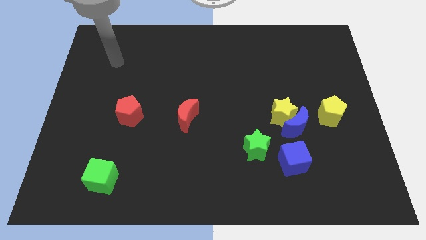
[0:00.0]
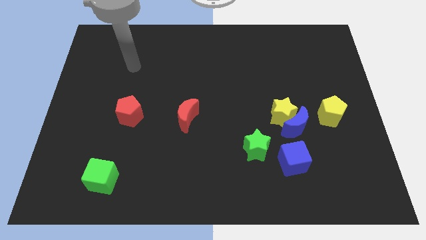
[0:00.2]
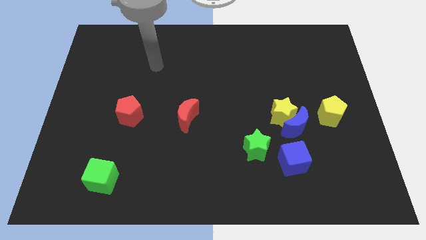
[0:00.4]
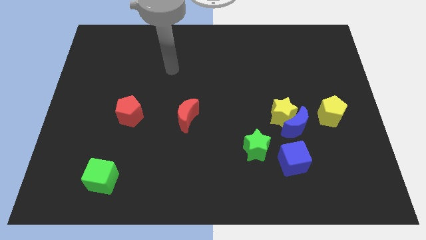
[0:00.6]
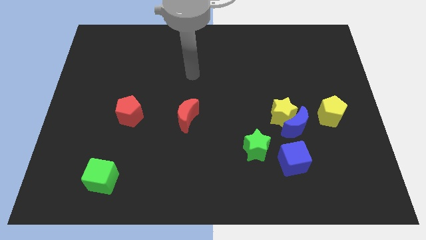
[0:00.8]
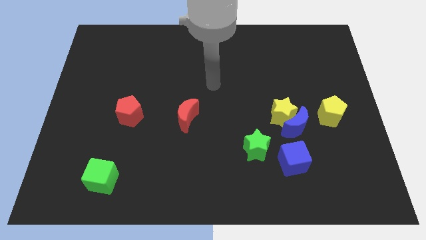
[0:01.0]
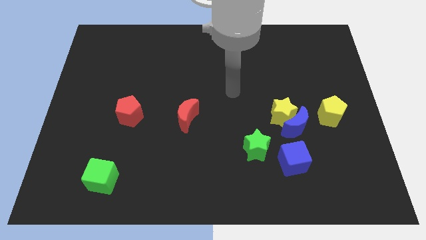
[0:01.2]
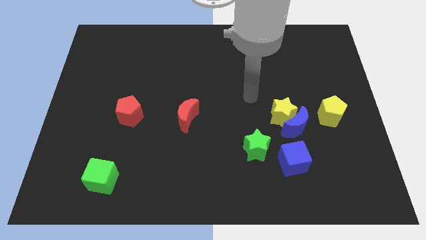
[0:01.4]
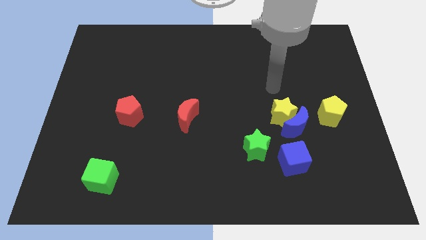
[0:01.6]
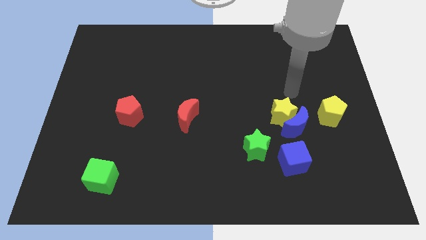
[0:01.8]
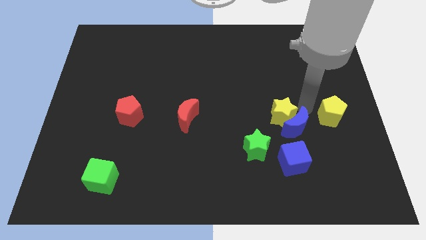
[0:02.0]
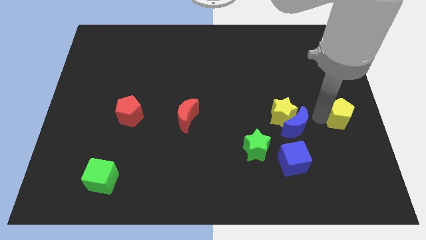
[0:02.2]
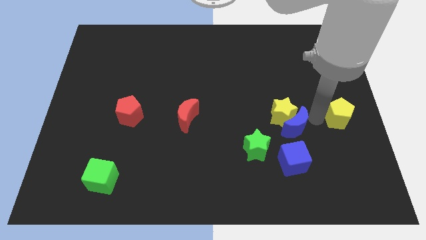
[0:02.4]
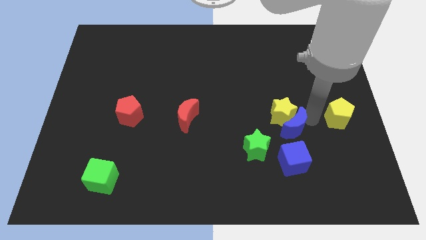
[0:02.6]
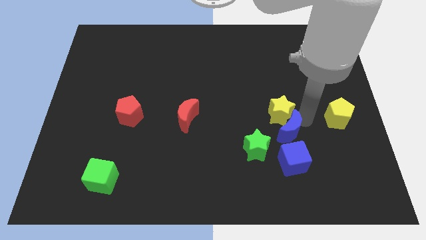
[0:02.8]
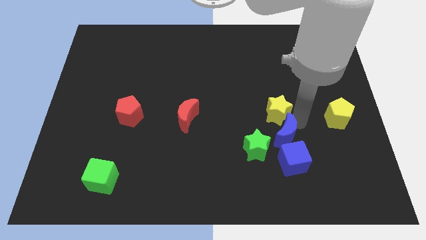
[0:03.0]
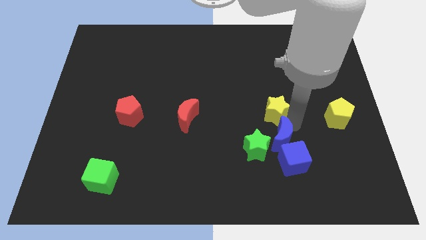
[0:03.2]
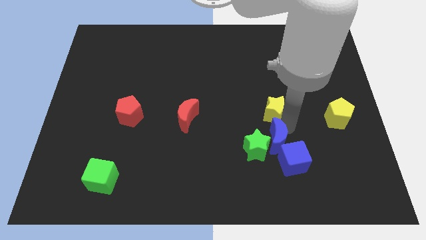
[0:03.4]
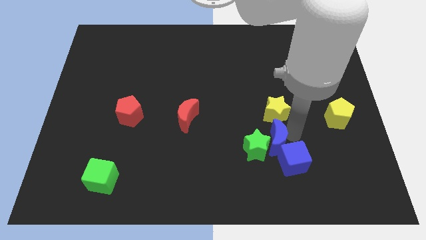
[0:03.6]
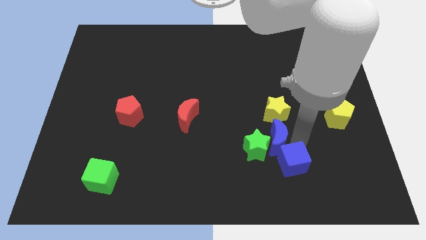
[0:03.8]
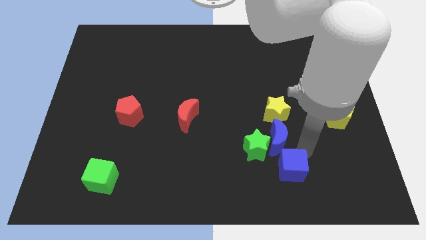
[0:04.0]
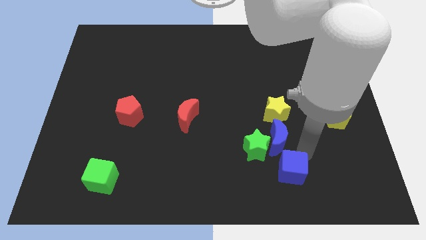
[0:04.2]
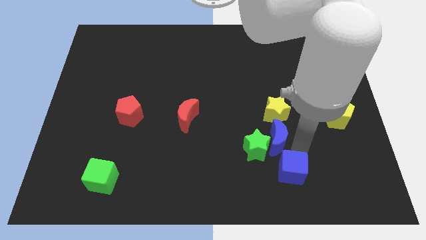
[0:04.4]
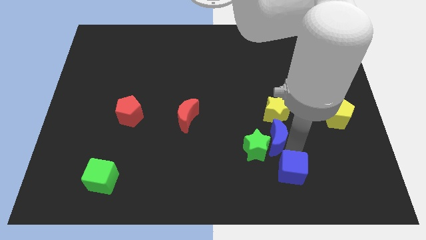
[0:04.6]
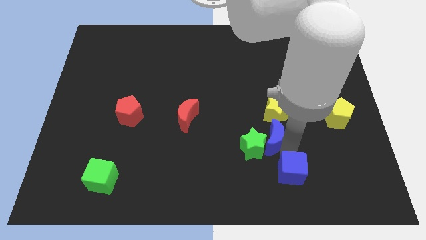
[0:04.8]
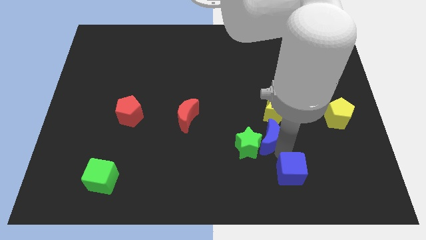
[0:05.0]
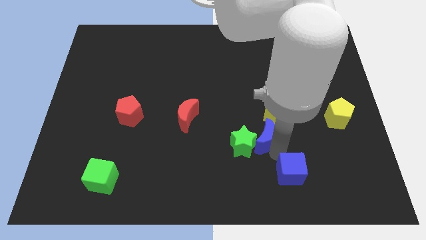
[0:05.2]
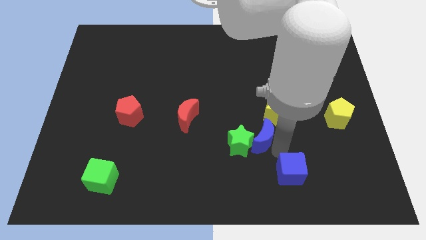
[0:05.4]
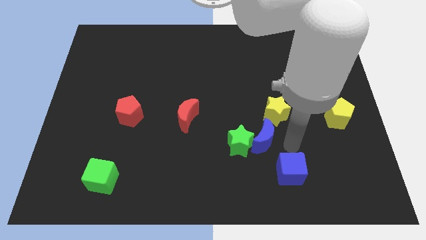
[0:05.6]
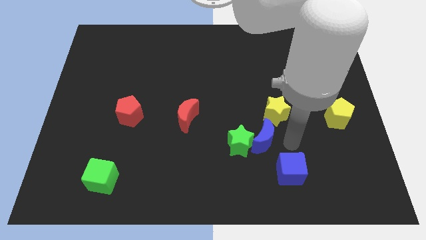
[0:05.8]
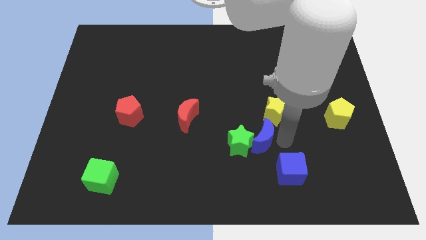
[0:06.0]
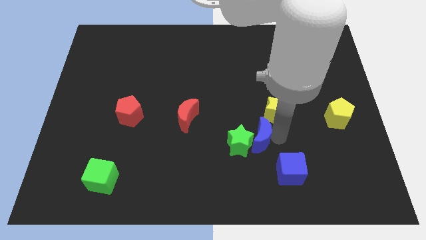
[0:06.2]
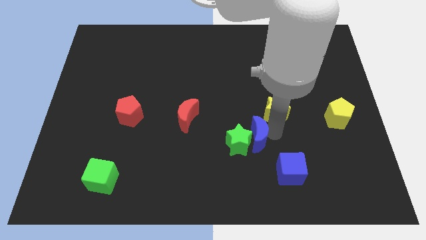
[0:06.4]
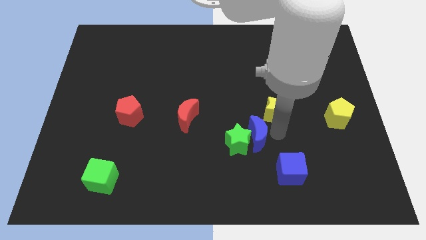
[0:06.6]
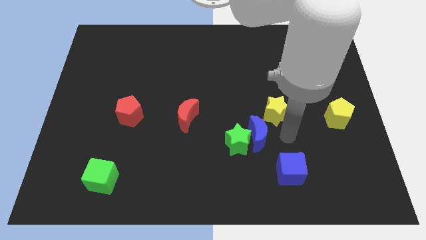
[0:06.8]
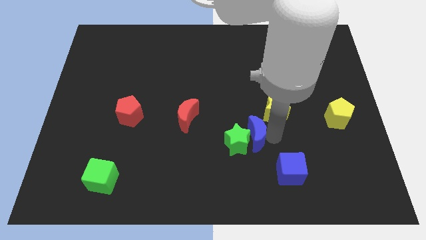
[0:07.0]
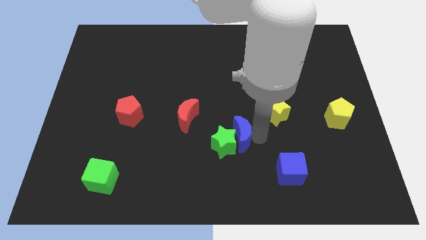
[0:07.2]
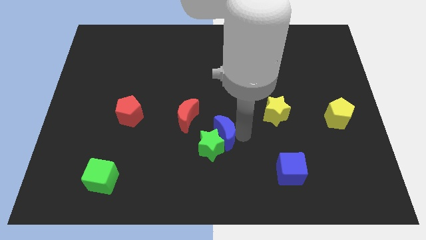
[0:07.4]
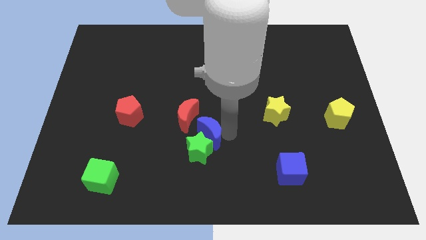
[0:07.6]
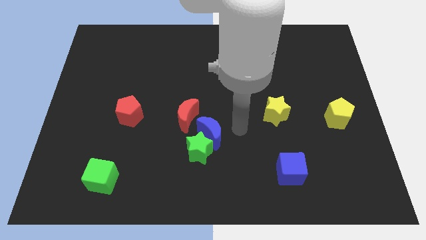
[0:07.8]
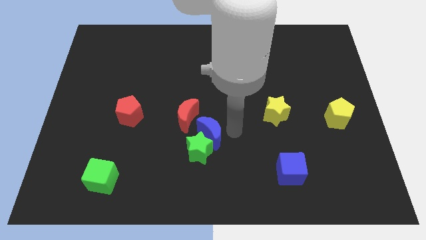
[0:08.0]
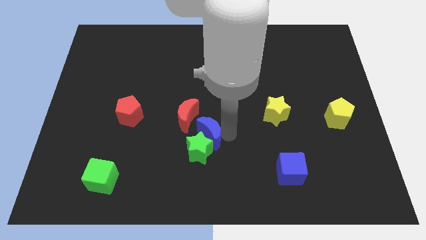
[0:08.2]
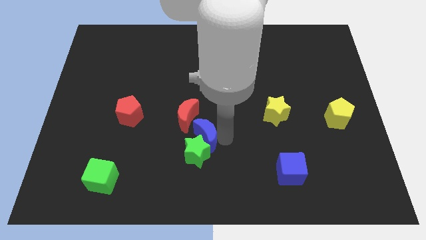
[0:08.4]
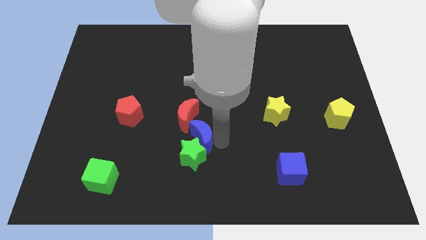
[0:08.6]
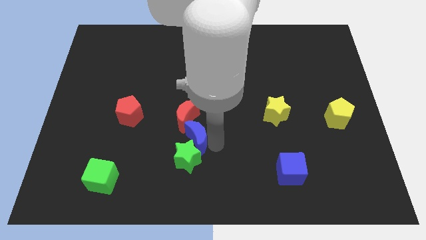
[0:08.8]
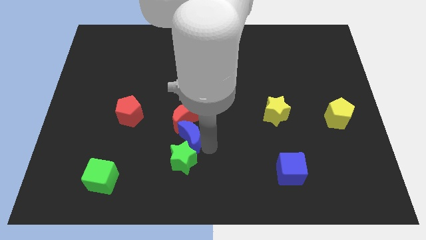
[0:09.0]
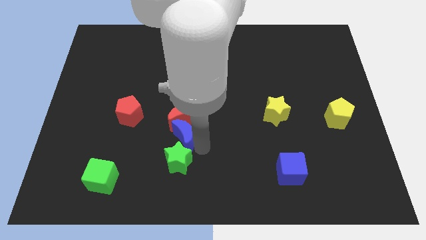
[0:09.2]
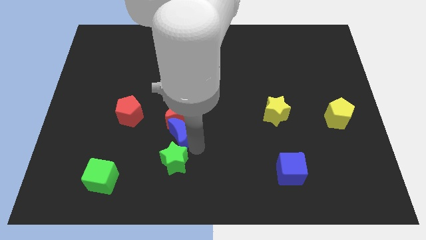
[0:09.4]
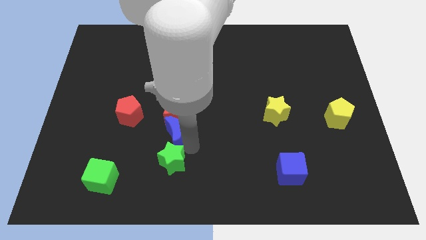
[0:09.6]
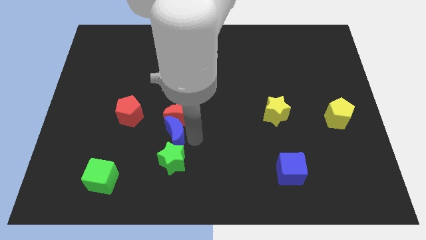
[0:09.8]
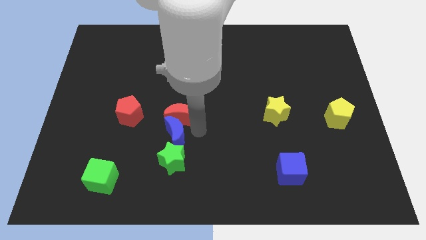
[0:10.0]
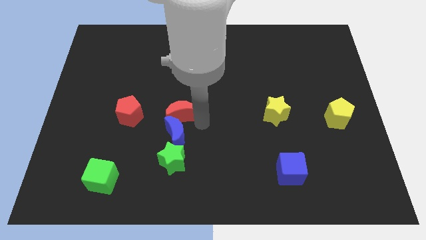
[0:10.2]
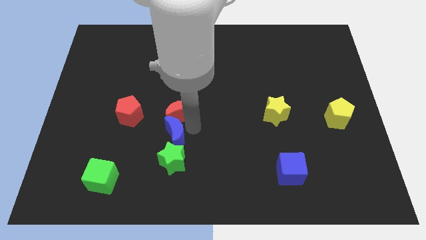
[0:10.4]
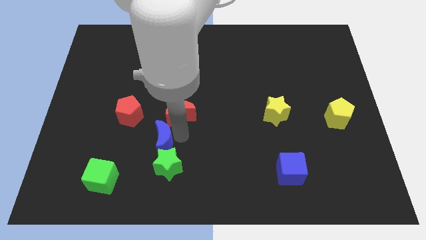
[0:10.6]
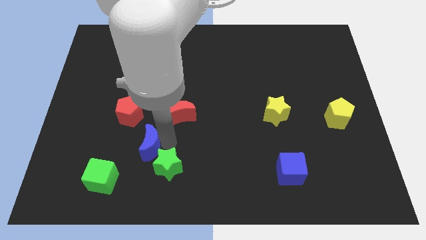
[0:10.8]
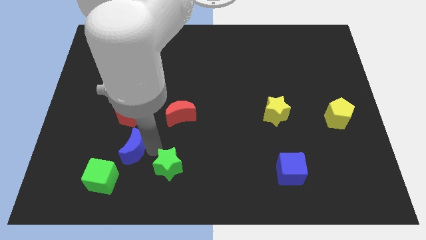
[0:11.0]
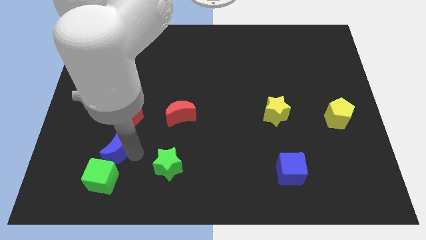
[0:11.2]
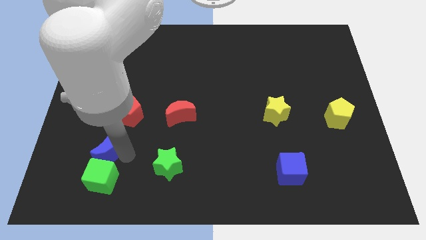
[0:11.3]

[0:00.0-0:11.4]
slide the blue moon to the bottom left side of the red pentagon

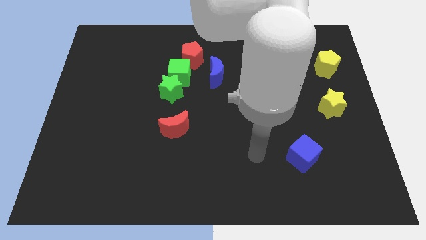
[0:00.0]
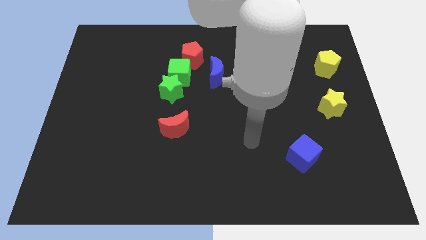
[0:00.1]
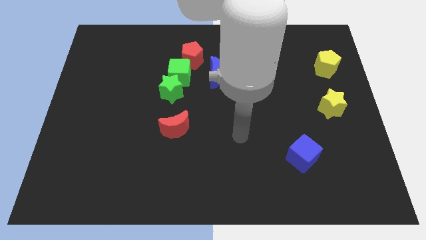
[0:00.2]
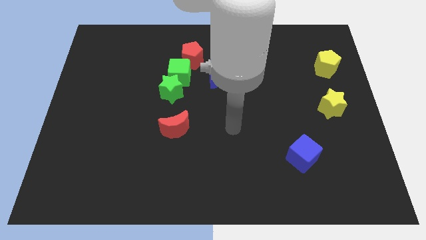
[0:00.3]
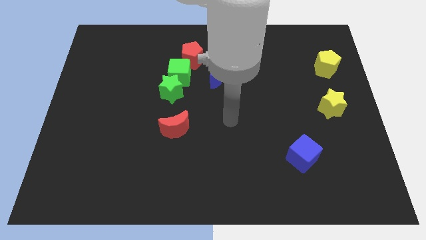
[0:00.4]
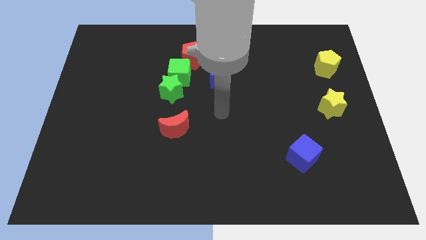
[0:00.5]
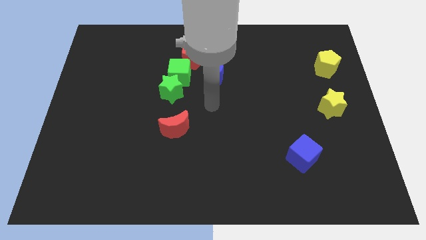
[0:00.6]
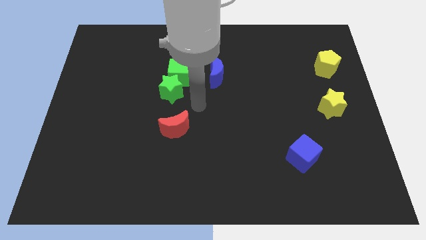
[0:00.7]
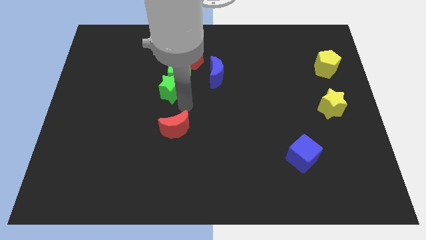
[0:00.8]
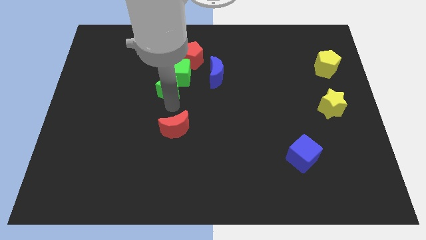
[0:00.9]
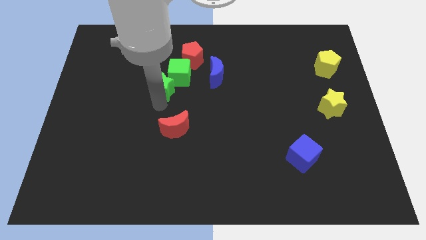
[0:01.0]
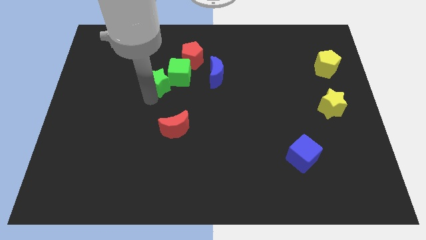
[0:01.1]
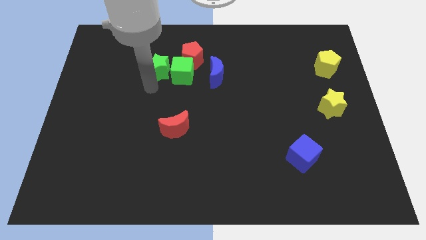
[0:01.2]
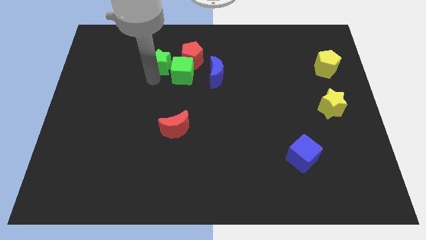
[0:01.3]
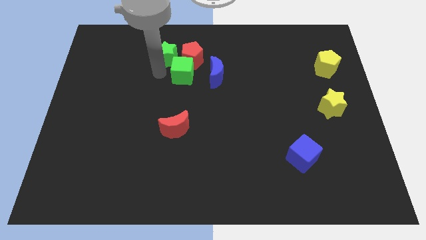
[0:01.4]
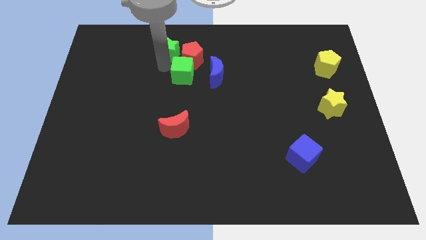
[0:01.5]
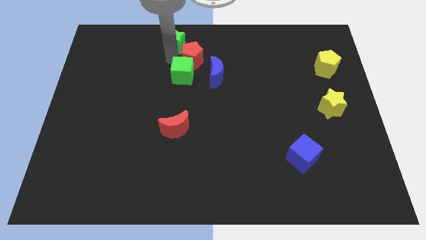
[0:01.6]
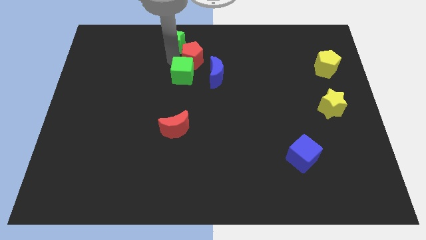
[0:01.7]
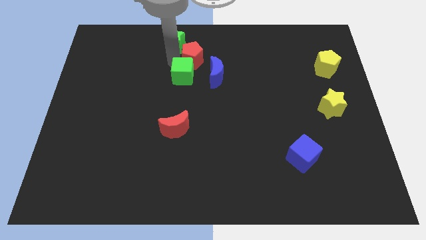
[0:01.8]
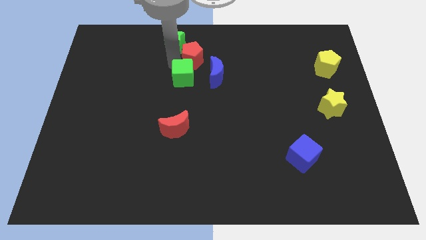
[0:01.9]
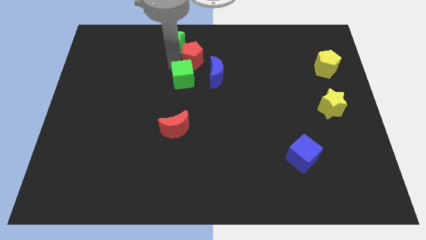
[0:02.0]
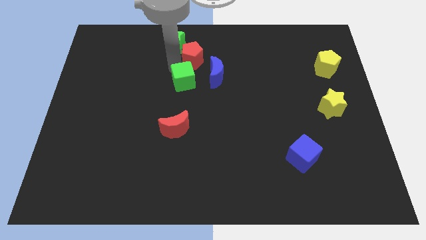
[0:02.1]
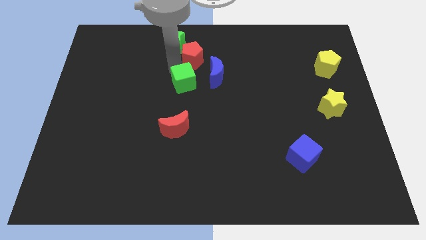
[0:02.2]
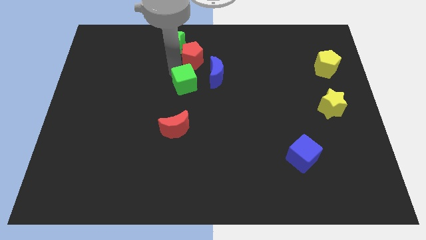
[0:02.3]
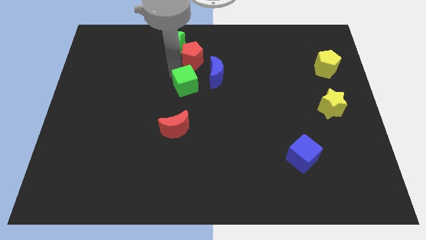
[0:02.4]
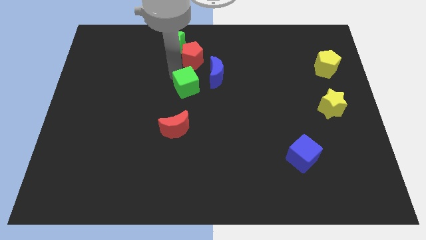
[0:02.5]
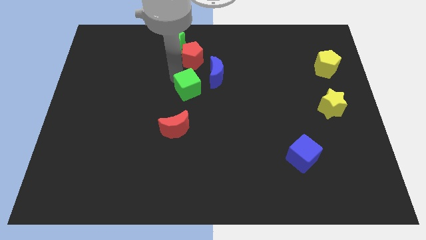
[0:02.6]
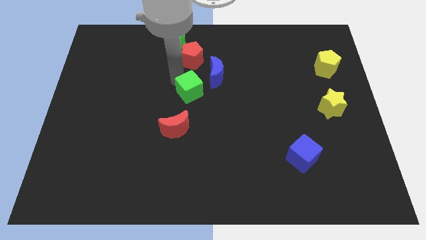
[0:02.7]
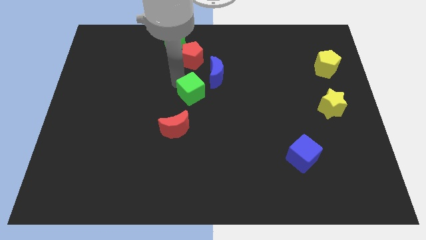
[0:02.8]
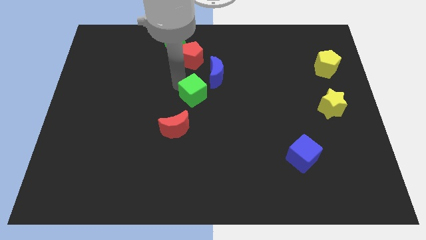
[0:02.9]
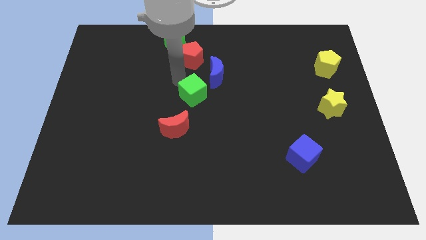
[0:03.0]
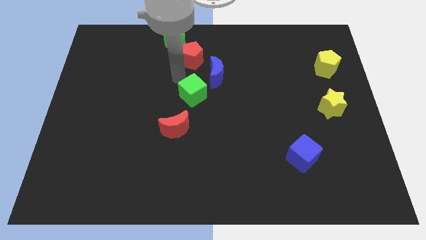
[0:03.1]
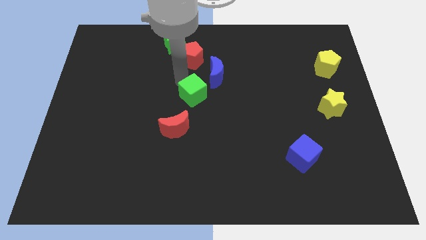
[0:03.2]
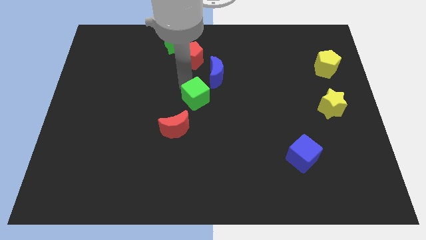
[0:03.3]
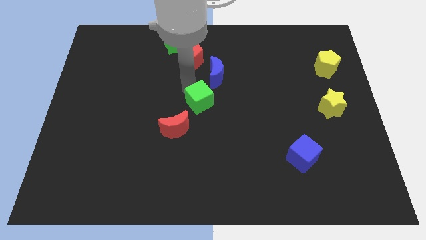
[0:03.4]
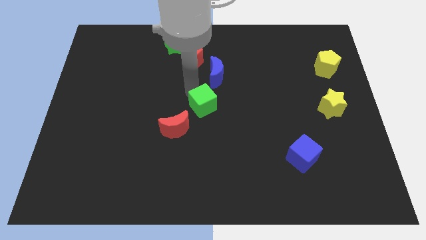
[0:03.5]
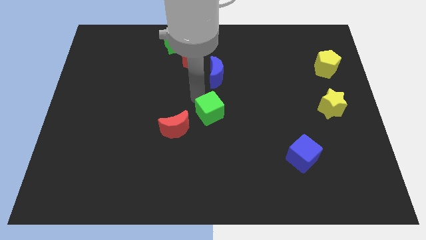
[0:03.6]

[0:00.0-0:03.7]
push the green cube to the right side of the red moon
